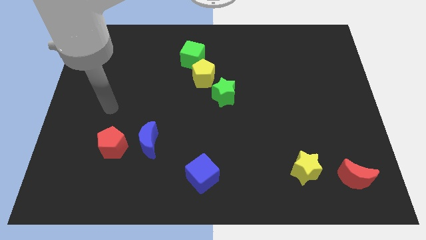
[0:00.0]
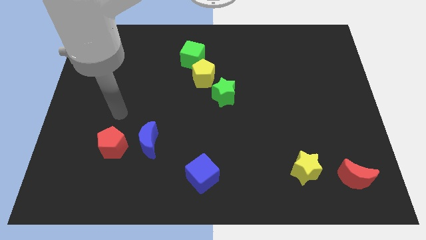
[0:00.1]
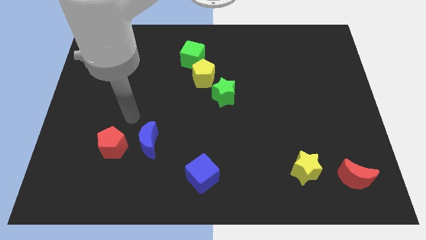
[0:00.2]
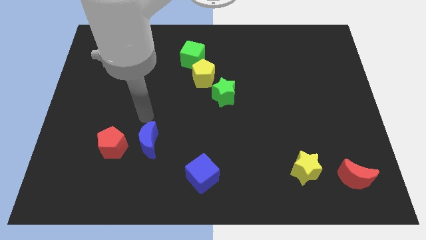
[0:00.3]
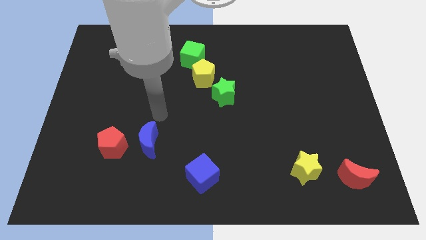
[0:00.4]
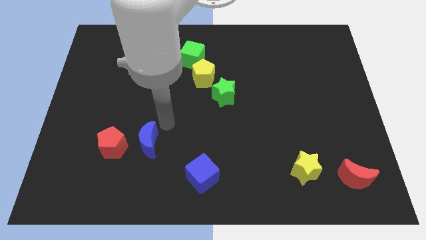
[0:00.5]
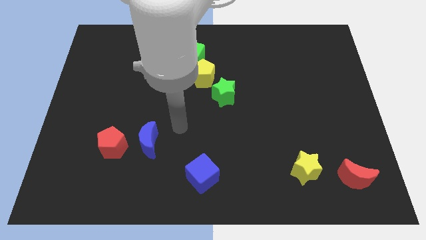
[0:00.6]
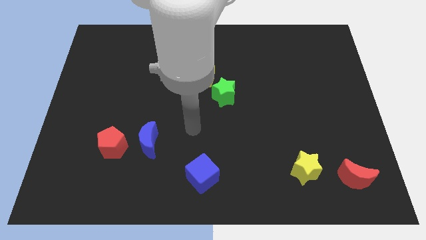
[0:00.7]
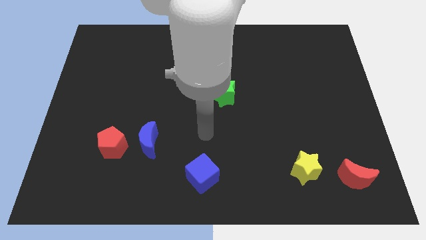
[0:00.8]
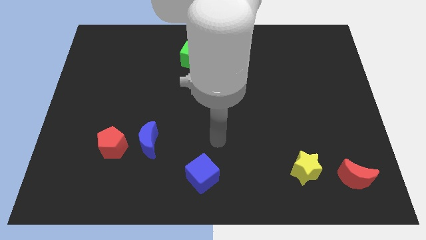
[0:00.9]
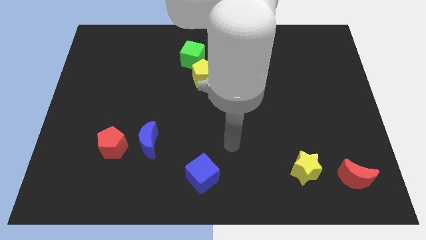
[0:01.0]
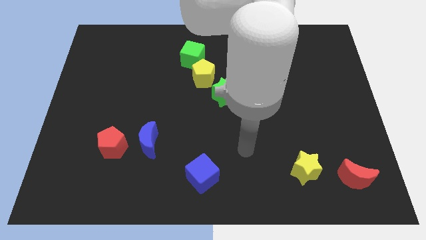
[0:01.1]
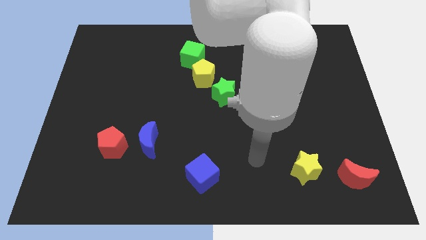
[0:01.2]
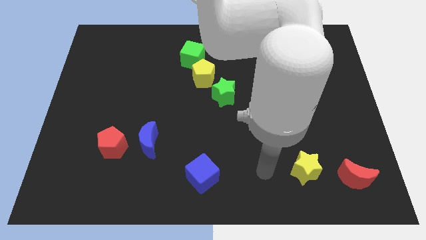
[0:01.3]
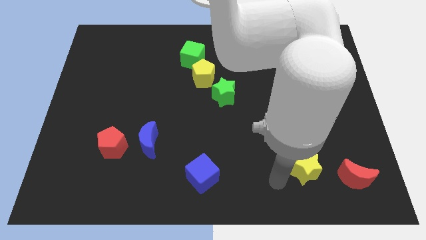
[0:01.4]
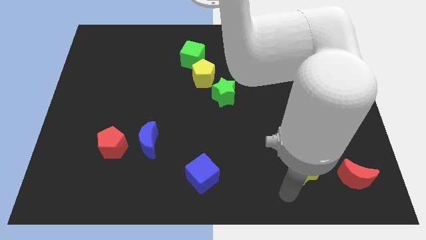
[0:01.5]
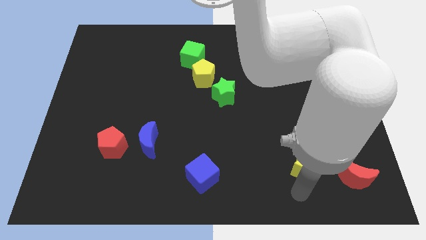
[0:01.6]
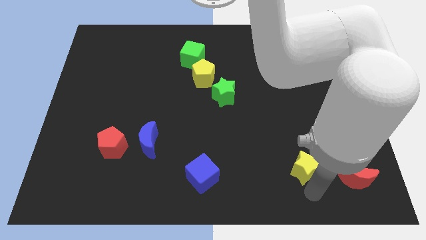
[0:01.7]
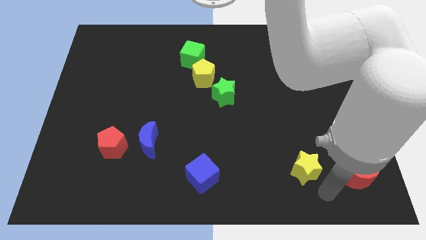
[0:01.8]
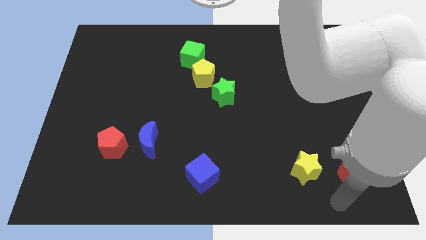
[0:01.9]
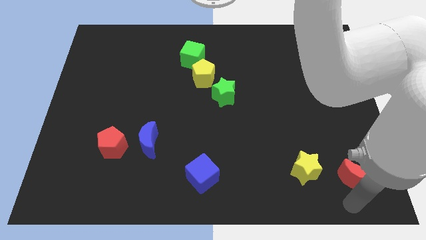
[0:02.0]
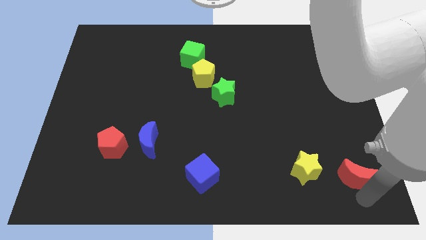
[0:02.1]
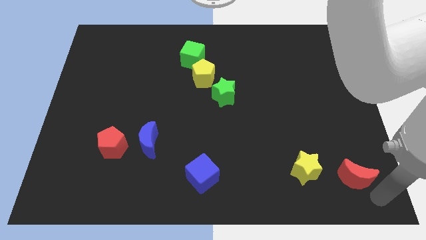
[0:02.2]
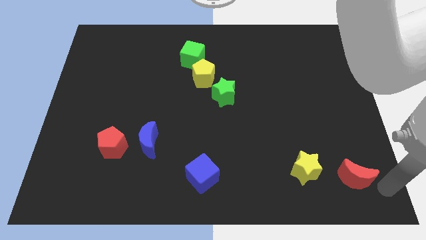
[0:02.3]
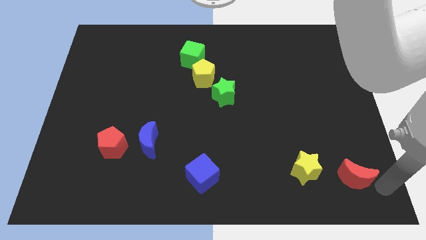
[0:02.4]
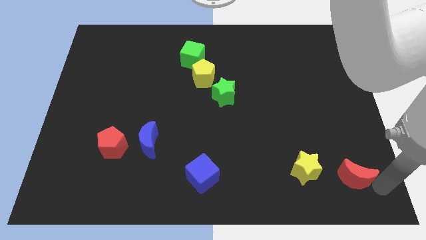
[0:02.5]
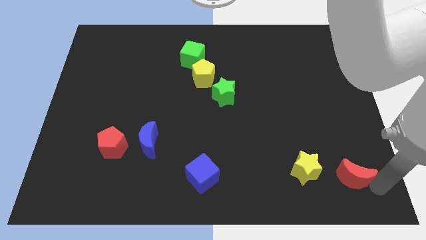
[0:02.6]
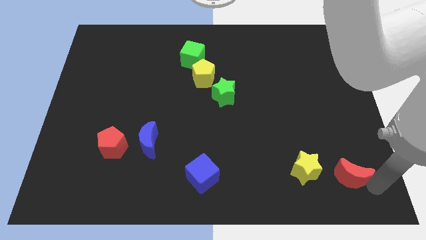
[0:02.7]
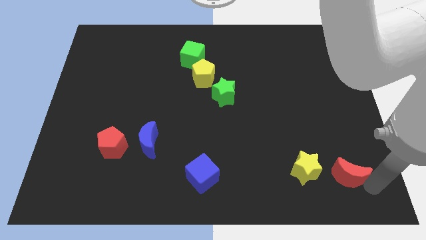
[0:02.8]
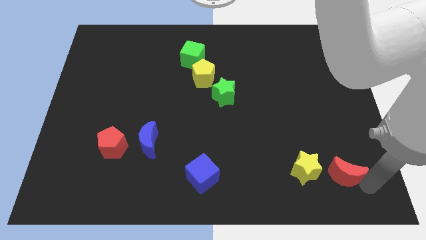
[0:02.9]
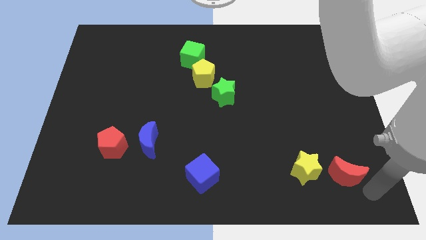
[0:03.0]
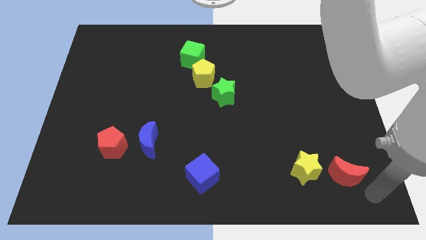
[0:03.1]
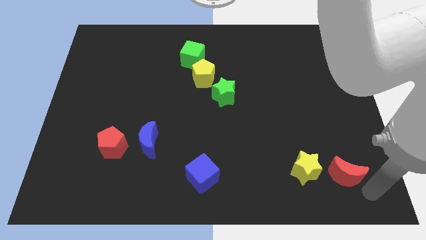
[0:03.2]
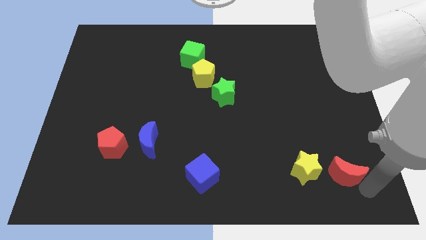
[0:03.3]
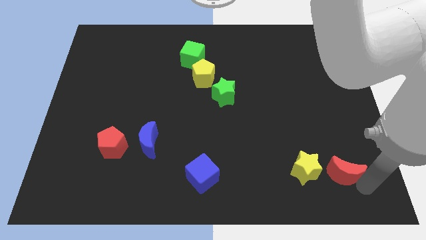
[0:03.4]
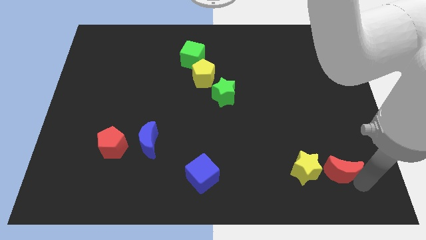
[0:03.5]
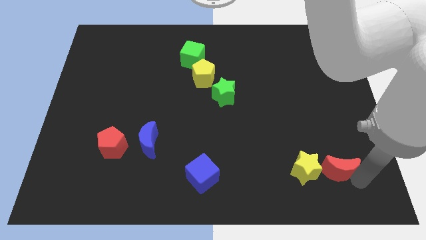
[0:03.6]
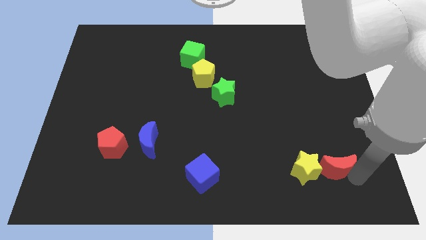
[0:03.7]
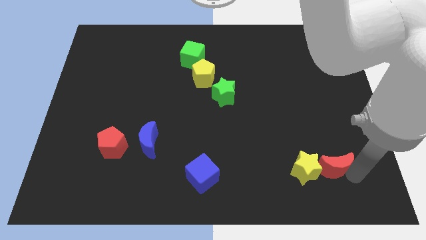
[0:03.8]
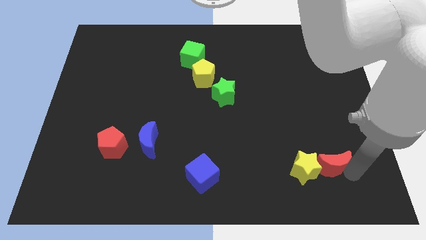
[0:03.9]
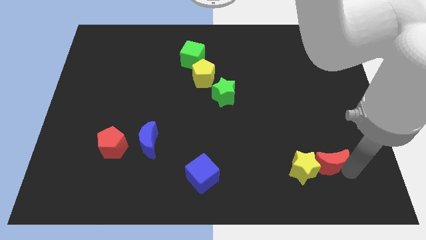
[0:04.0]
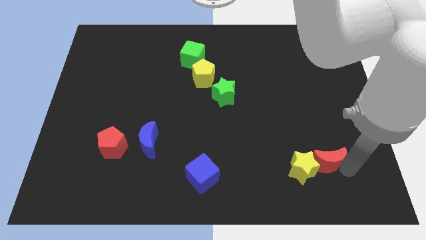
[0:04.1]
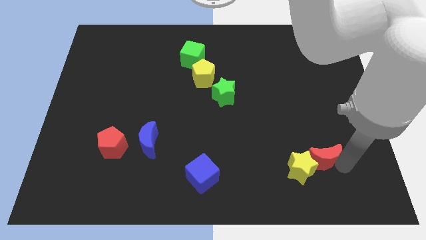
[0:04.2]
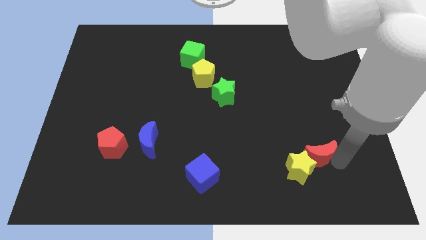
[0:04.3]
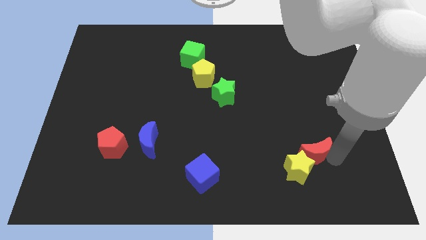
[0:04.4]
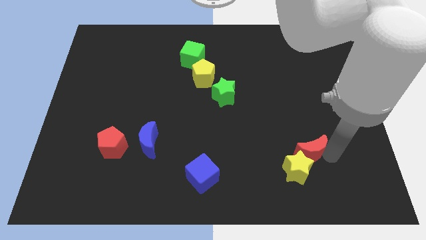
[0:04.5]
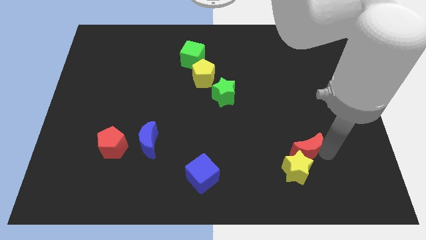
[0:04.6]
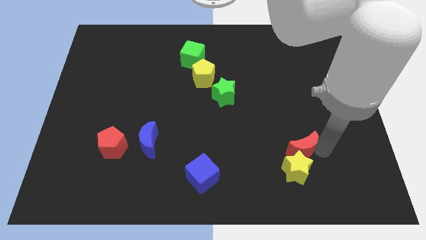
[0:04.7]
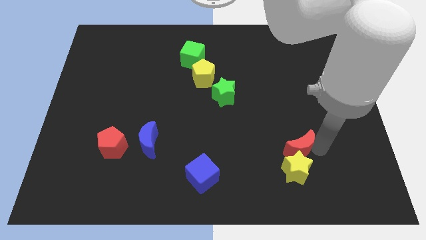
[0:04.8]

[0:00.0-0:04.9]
move the red moon to the top left side of the yellow star

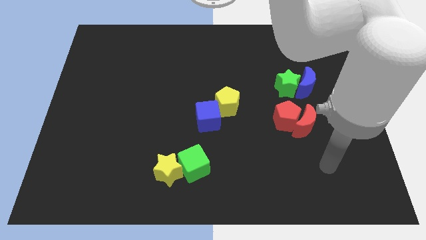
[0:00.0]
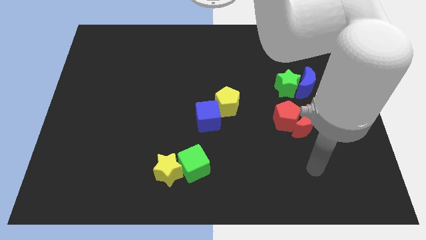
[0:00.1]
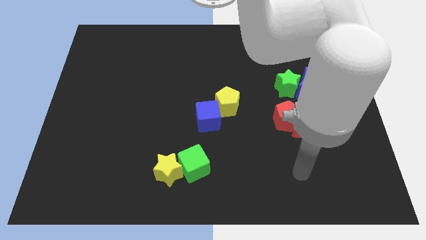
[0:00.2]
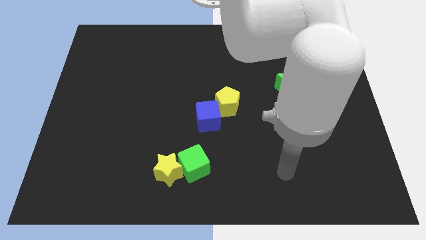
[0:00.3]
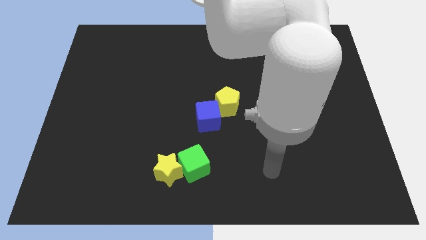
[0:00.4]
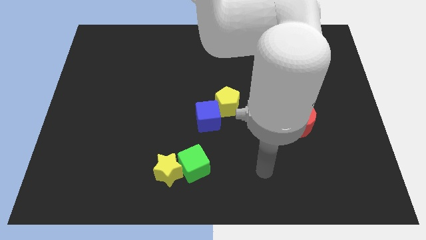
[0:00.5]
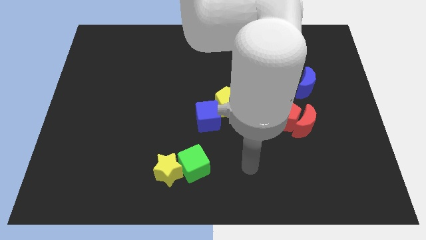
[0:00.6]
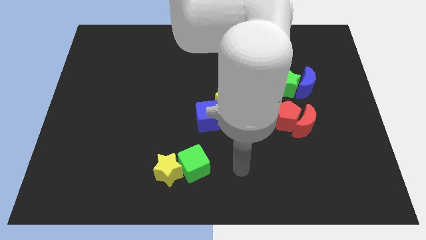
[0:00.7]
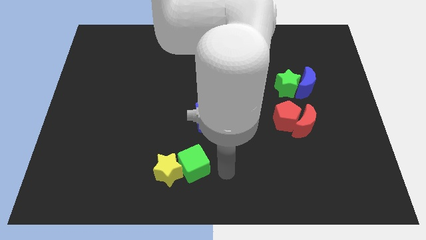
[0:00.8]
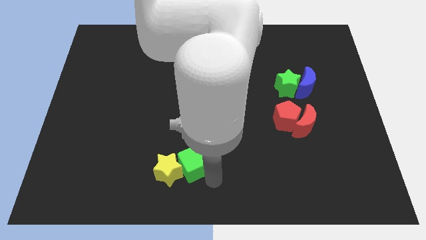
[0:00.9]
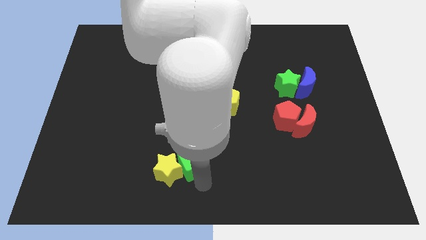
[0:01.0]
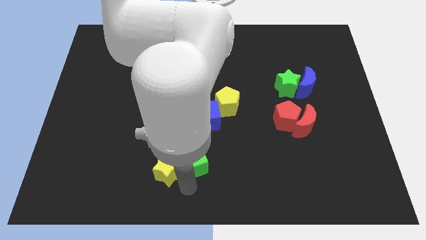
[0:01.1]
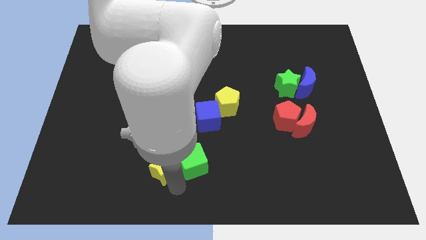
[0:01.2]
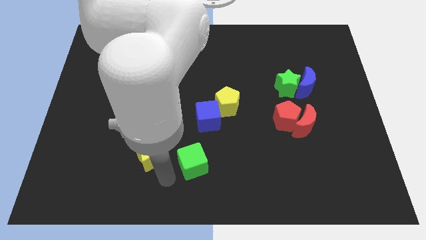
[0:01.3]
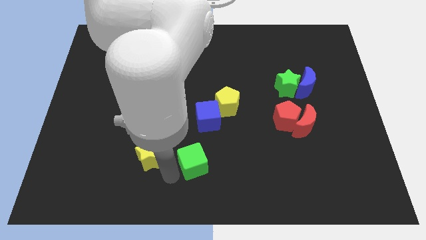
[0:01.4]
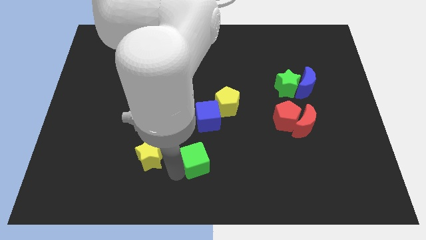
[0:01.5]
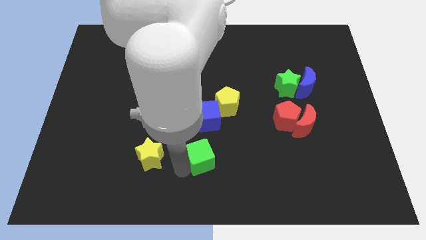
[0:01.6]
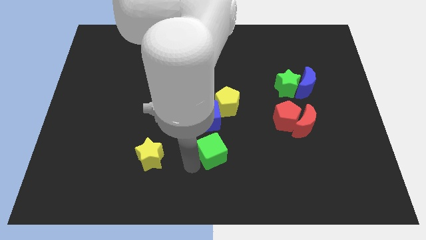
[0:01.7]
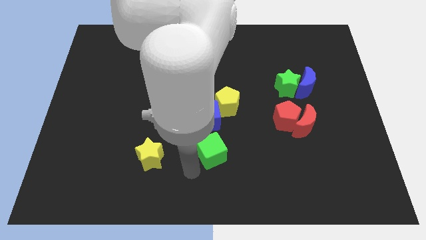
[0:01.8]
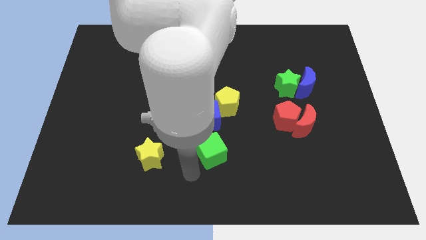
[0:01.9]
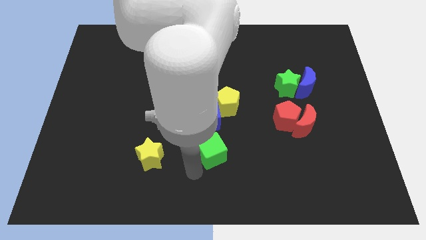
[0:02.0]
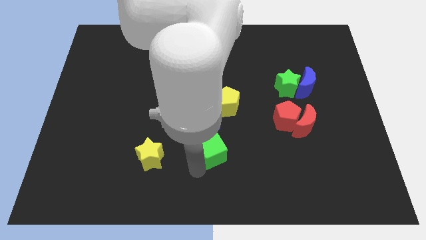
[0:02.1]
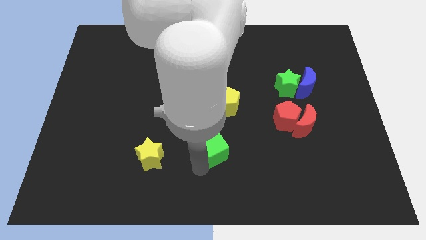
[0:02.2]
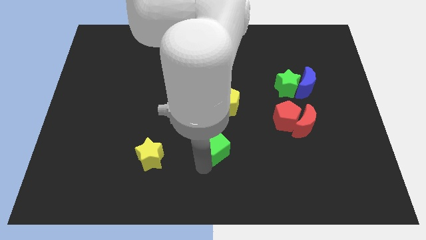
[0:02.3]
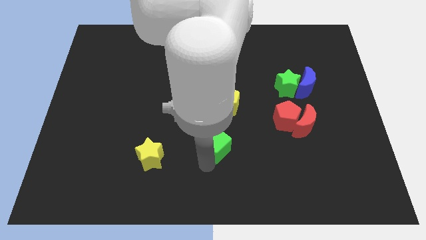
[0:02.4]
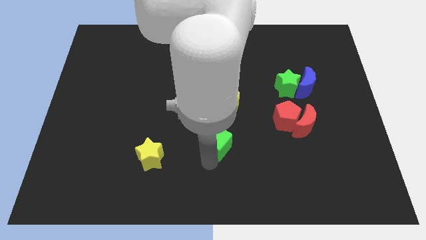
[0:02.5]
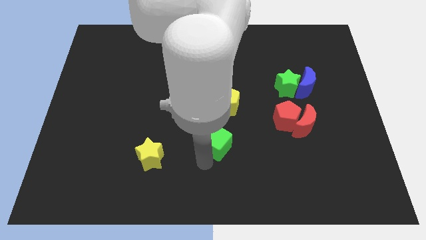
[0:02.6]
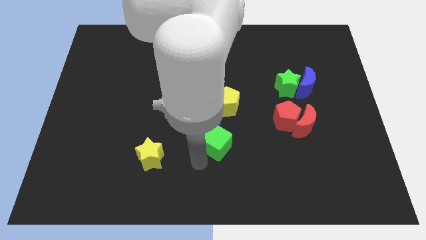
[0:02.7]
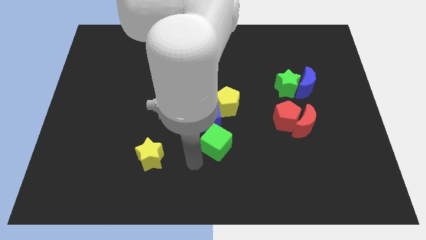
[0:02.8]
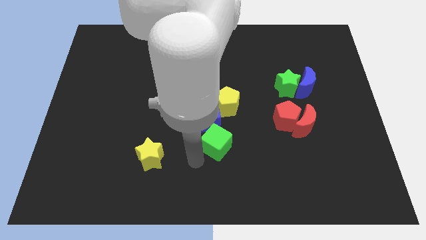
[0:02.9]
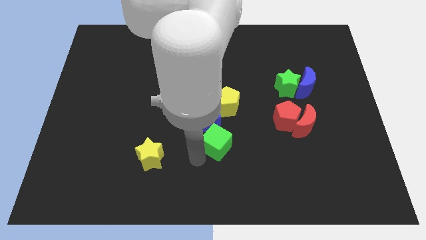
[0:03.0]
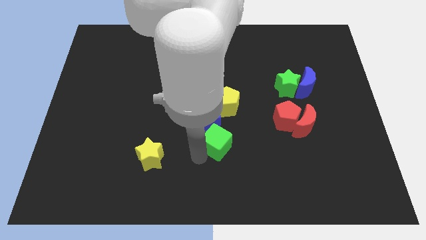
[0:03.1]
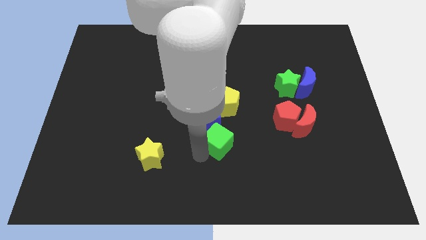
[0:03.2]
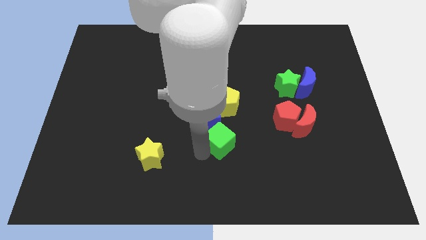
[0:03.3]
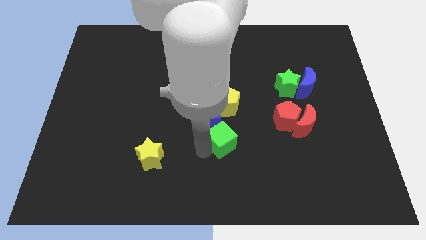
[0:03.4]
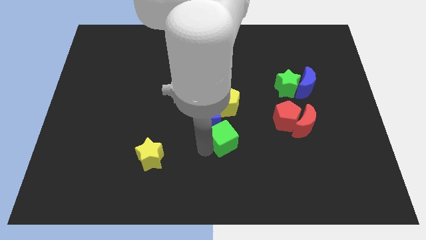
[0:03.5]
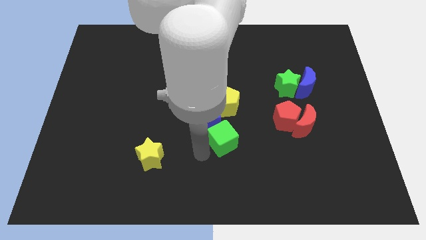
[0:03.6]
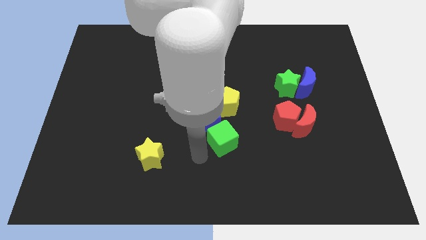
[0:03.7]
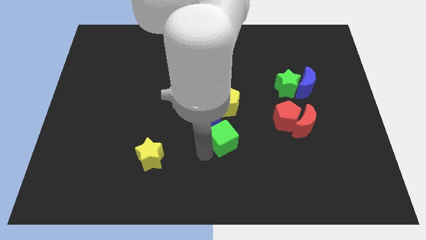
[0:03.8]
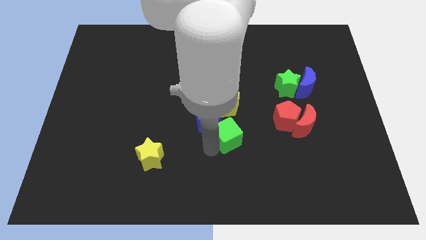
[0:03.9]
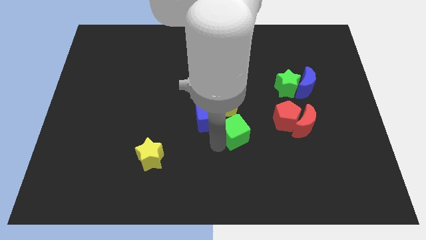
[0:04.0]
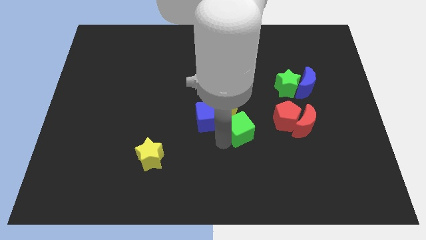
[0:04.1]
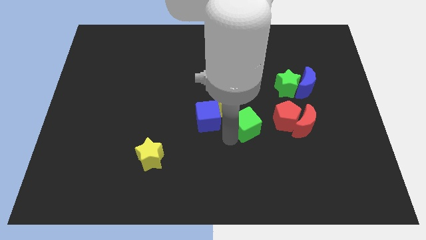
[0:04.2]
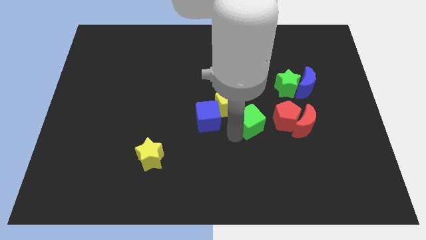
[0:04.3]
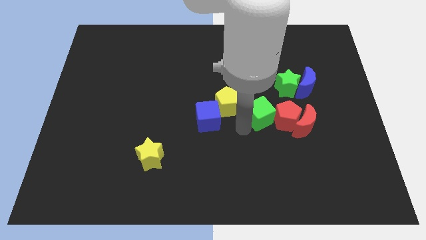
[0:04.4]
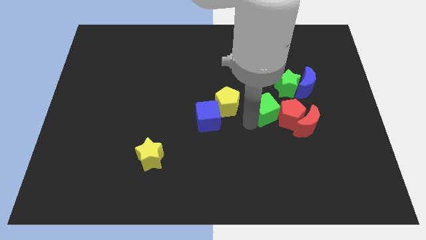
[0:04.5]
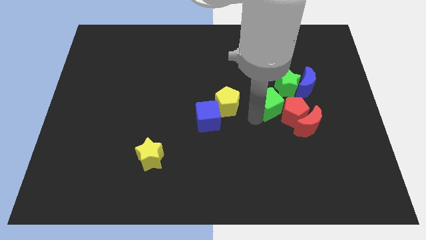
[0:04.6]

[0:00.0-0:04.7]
move the green cube to the bottom left side of the blue moon
